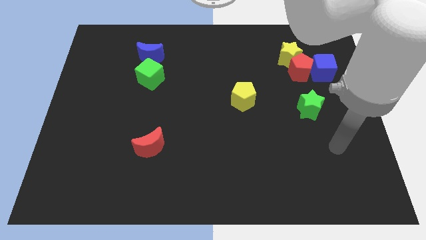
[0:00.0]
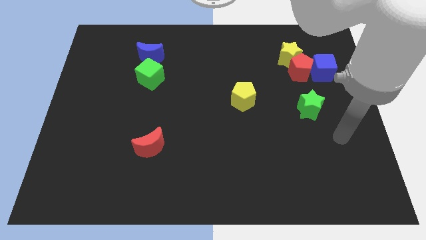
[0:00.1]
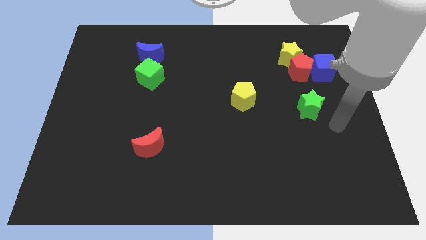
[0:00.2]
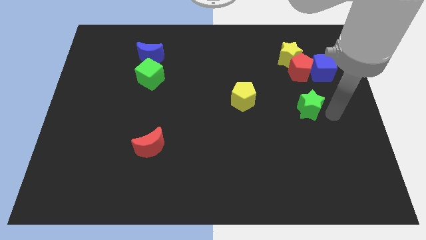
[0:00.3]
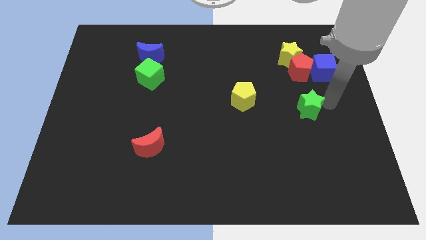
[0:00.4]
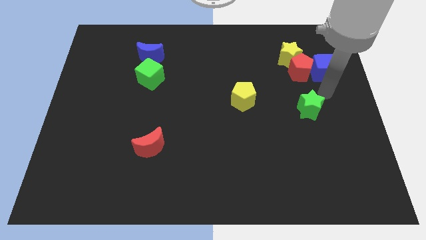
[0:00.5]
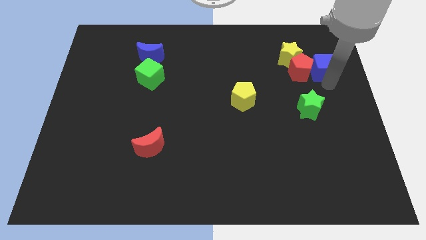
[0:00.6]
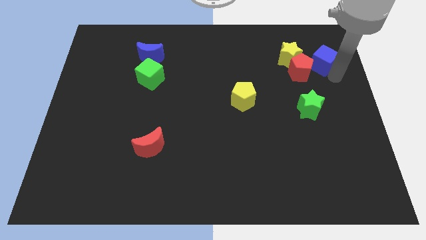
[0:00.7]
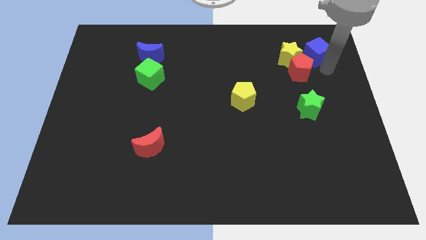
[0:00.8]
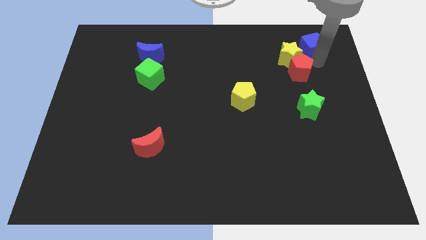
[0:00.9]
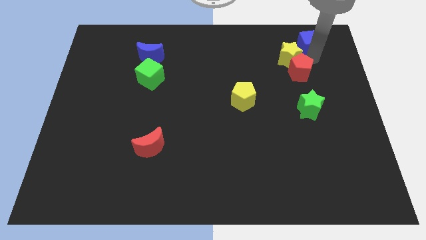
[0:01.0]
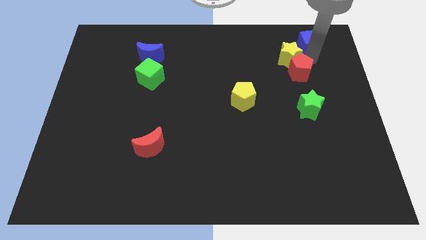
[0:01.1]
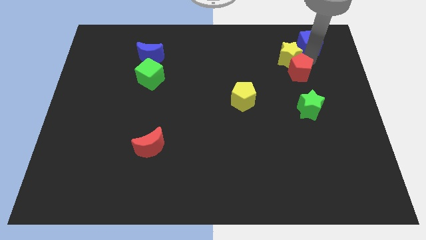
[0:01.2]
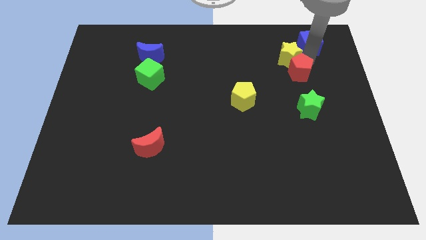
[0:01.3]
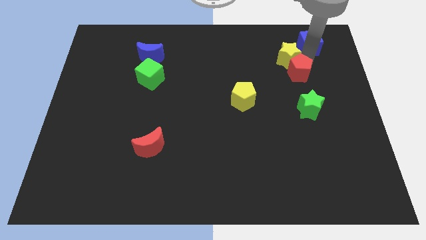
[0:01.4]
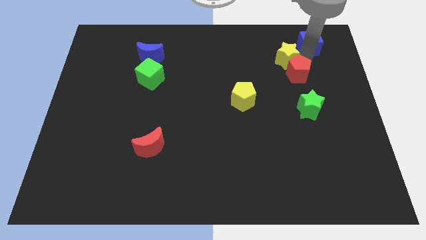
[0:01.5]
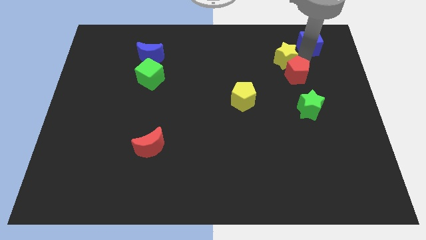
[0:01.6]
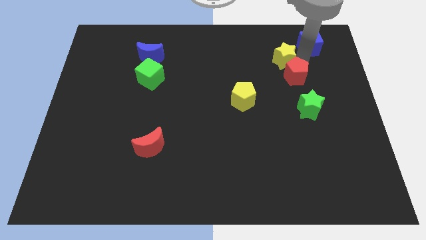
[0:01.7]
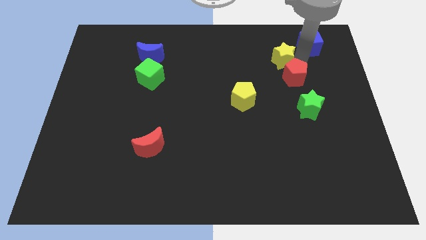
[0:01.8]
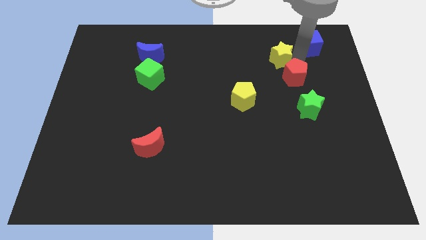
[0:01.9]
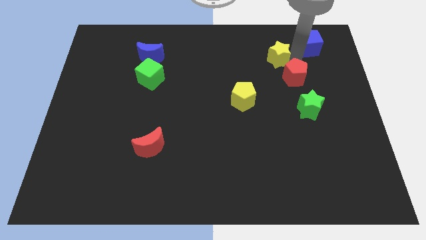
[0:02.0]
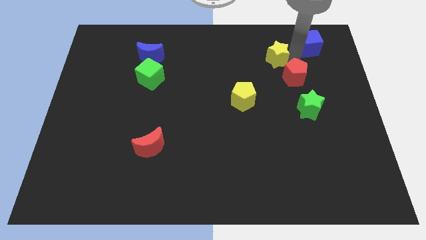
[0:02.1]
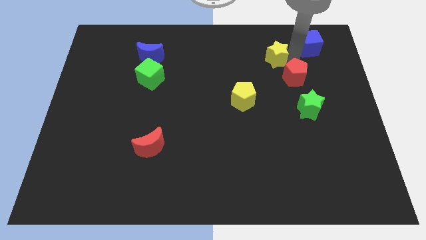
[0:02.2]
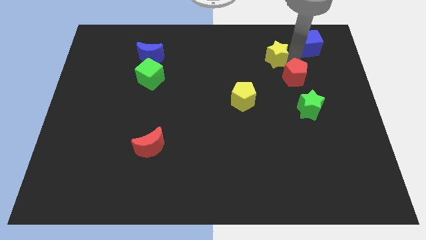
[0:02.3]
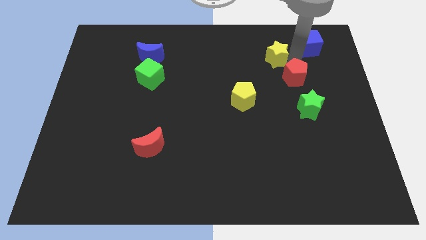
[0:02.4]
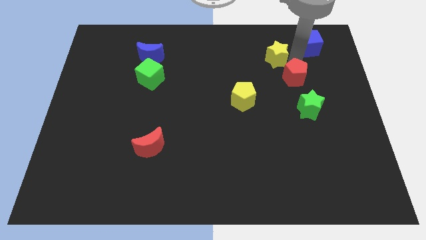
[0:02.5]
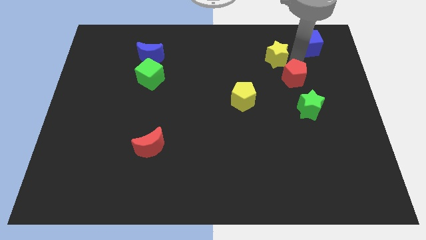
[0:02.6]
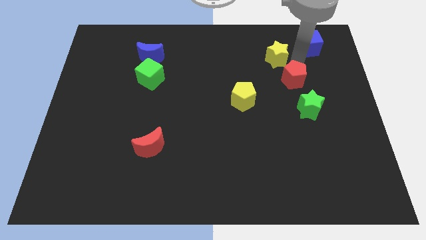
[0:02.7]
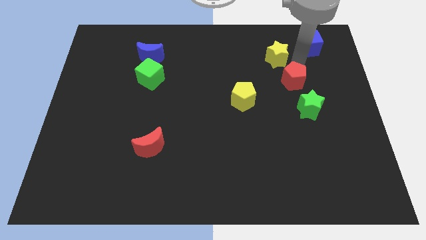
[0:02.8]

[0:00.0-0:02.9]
pull the red pentagon apart from the yellow star and blue cube

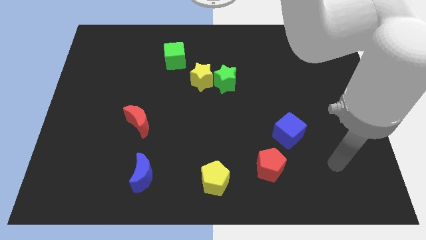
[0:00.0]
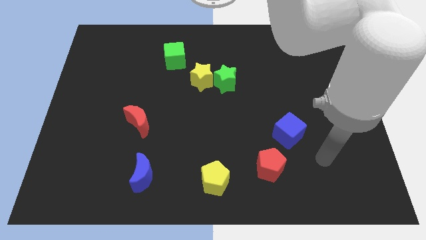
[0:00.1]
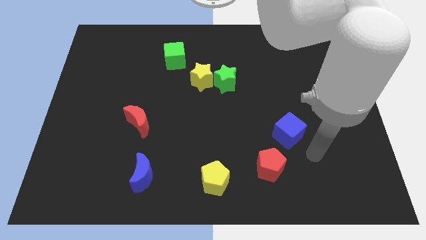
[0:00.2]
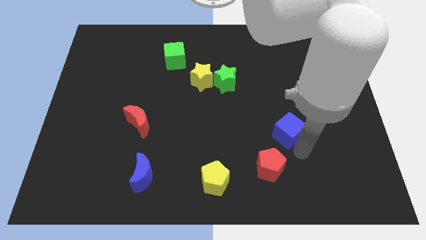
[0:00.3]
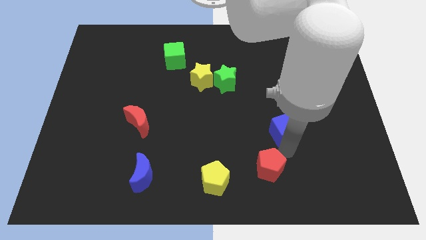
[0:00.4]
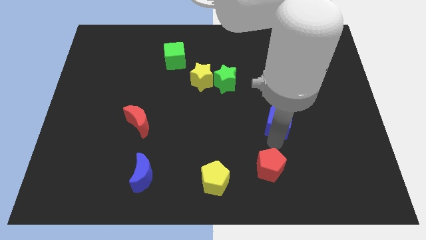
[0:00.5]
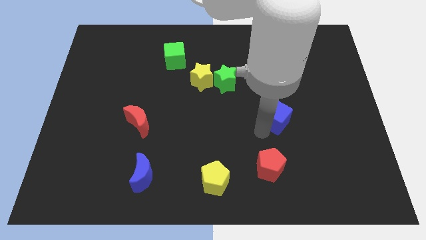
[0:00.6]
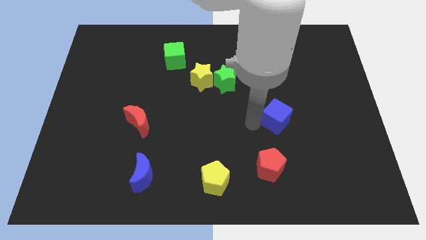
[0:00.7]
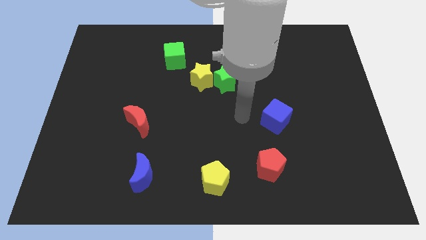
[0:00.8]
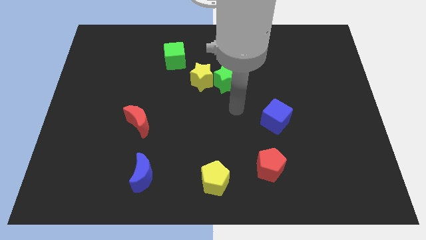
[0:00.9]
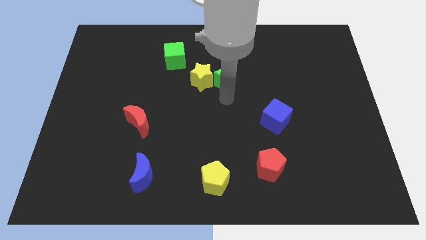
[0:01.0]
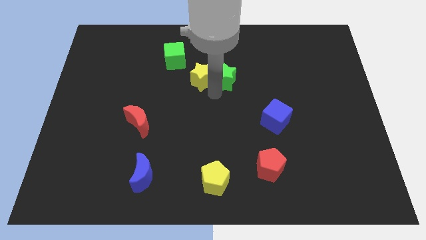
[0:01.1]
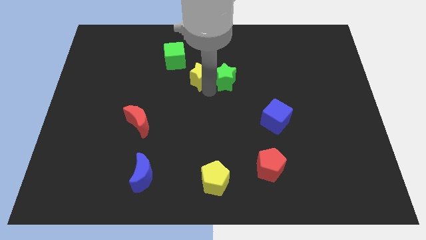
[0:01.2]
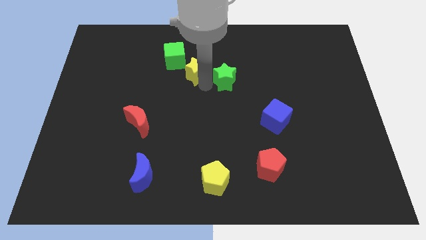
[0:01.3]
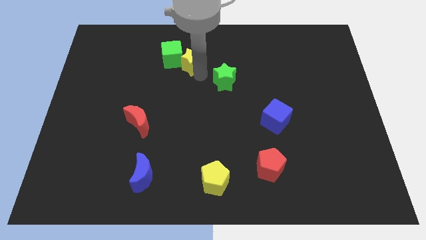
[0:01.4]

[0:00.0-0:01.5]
move the green star away from the yellow star

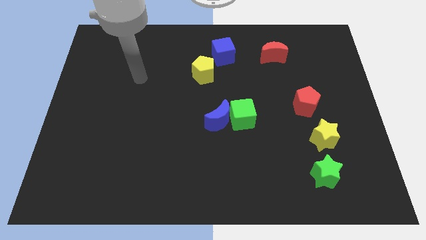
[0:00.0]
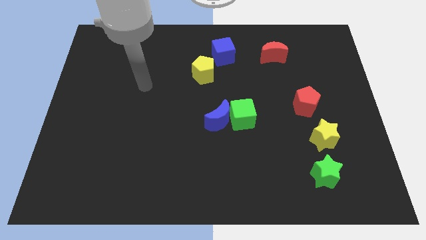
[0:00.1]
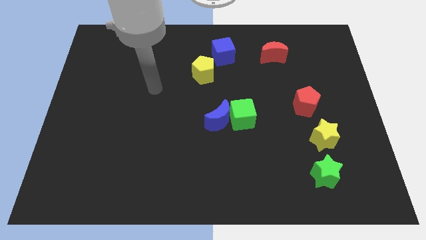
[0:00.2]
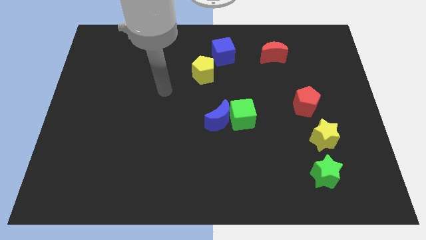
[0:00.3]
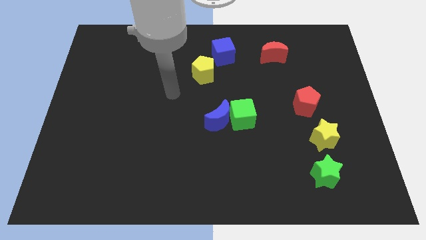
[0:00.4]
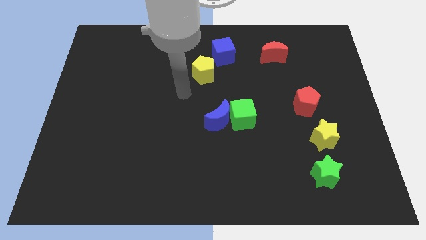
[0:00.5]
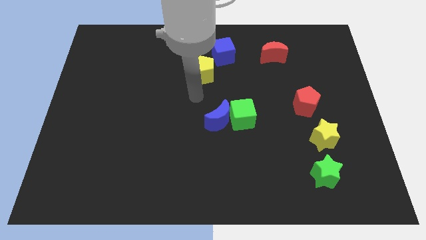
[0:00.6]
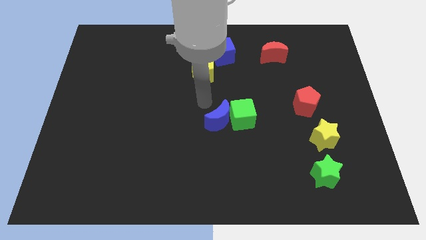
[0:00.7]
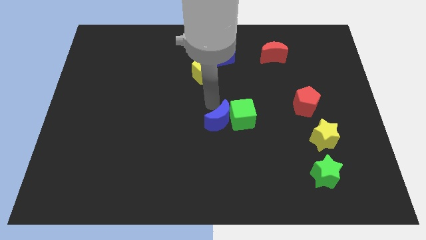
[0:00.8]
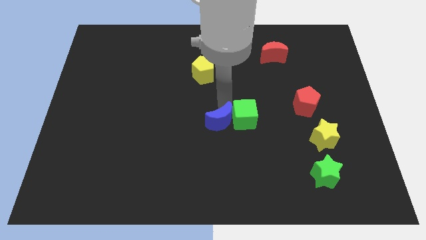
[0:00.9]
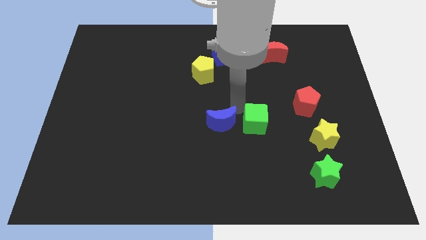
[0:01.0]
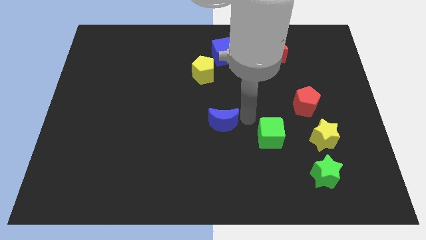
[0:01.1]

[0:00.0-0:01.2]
separate the blue moon from the green cube

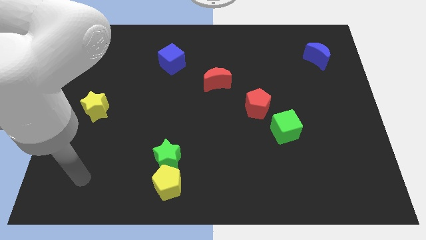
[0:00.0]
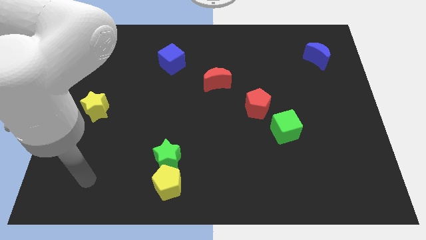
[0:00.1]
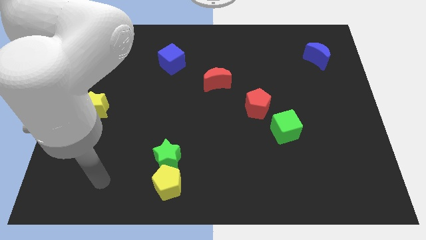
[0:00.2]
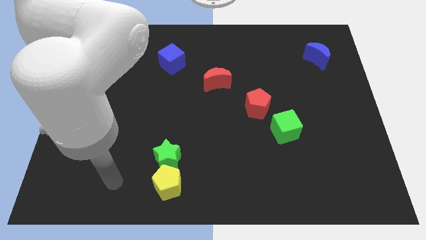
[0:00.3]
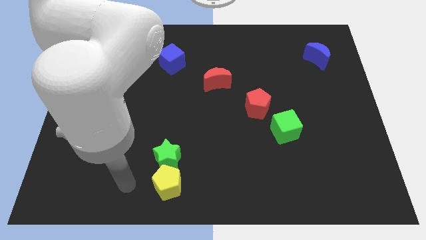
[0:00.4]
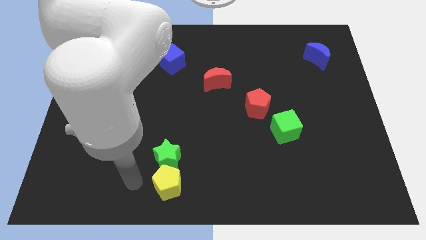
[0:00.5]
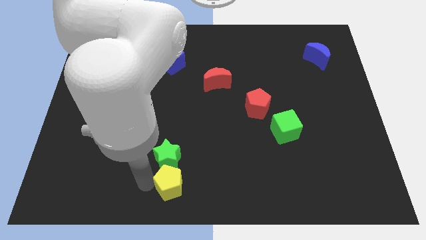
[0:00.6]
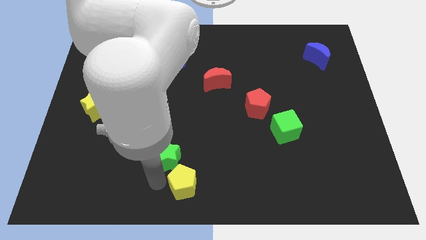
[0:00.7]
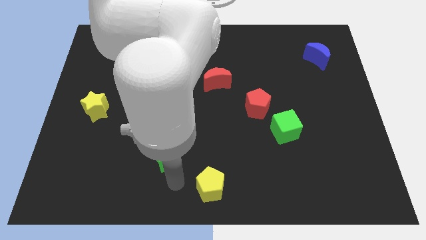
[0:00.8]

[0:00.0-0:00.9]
pull the green star apart from the yellow pentagon

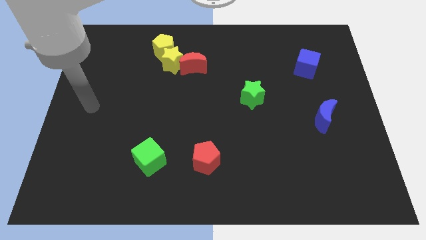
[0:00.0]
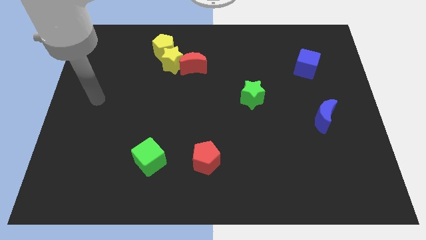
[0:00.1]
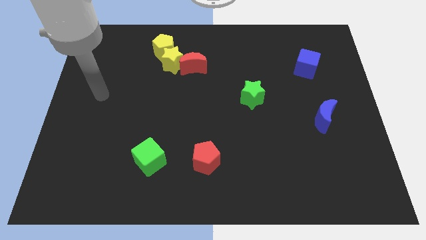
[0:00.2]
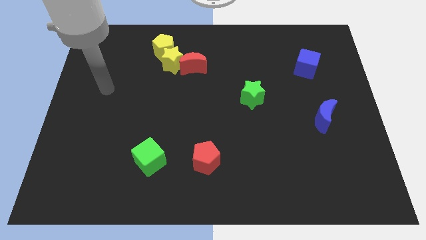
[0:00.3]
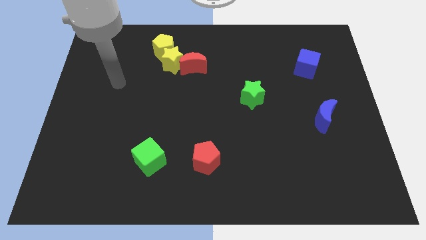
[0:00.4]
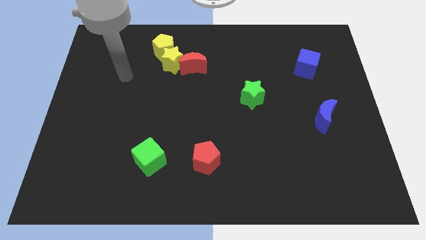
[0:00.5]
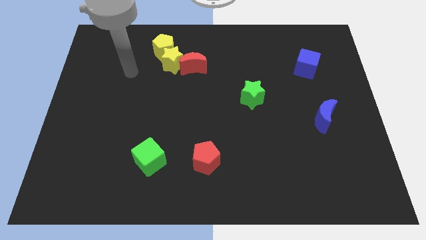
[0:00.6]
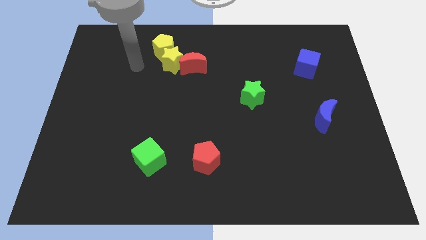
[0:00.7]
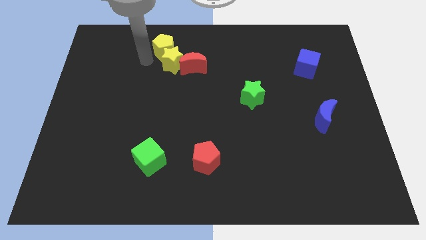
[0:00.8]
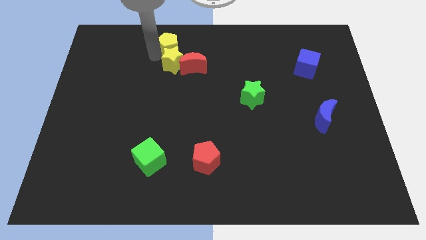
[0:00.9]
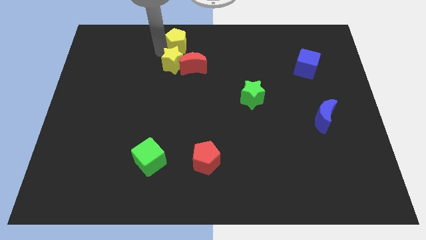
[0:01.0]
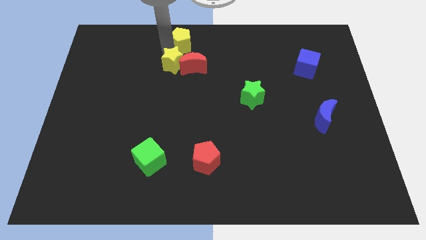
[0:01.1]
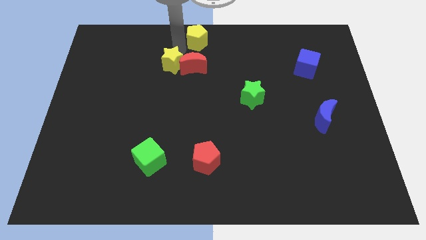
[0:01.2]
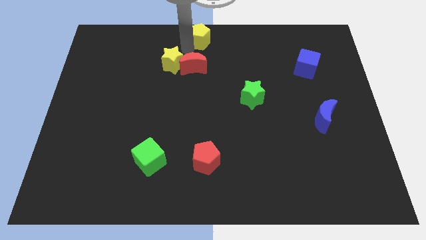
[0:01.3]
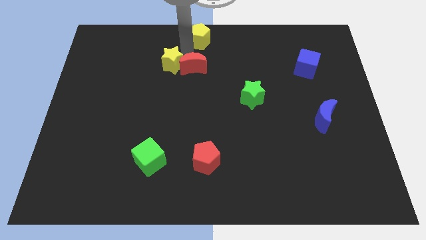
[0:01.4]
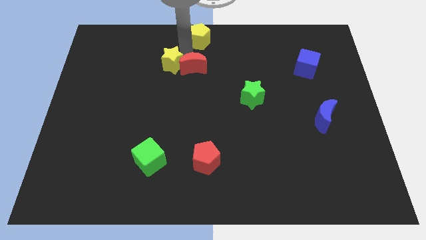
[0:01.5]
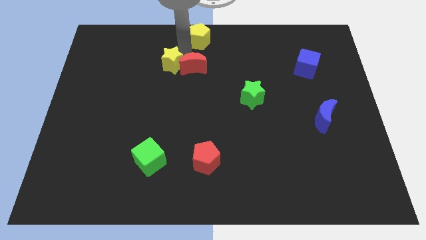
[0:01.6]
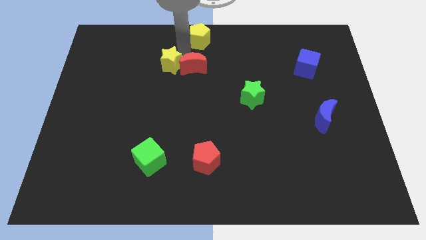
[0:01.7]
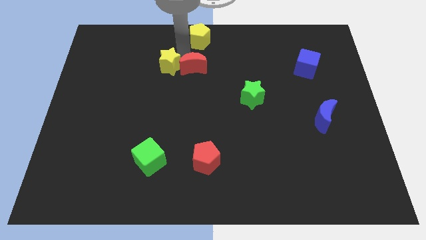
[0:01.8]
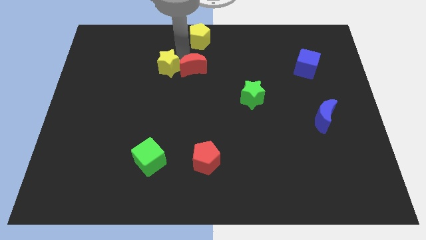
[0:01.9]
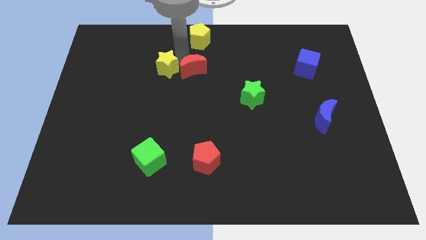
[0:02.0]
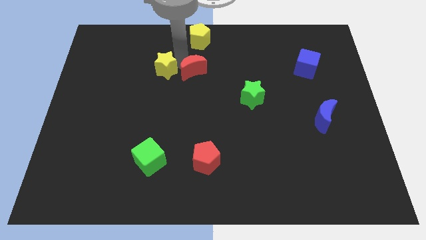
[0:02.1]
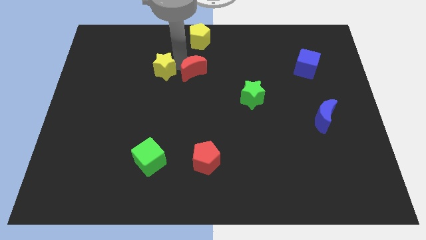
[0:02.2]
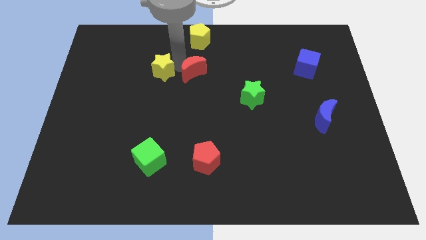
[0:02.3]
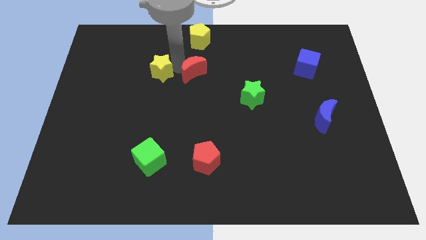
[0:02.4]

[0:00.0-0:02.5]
move the yellow star away from the red moon and yellow pentagon
